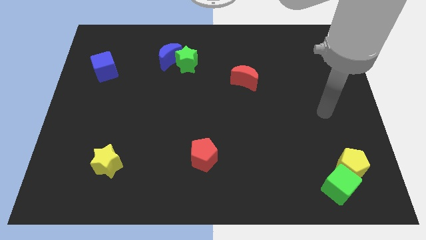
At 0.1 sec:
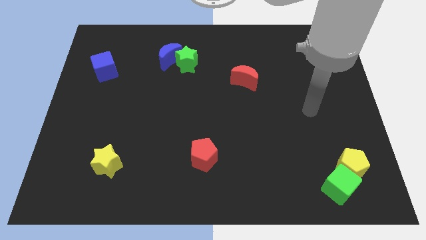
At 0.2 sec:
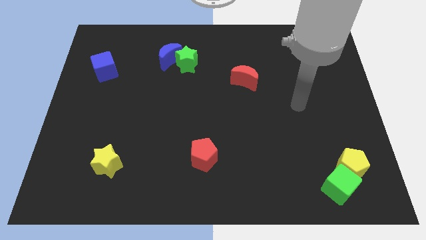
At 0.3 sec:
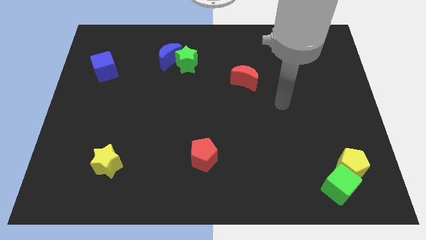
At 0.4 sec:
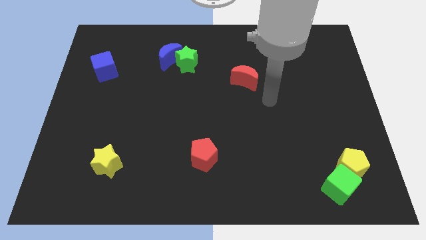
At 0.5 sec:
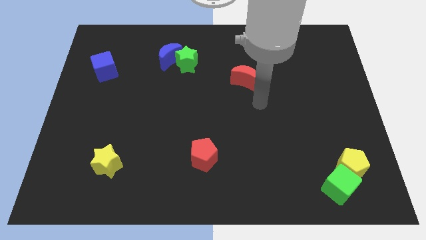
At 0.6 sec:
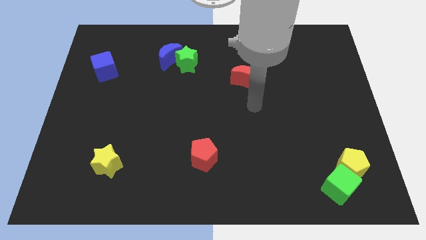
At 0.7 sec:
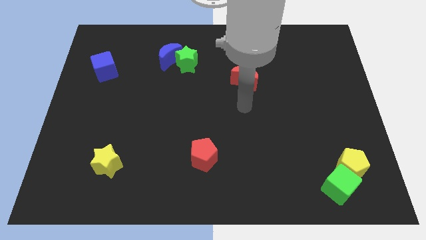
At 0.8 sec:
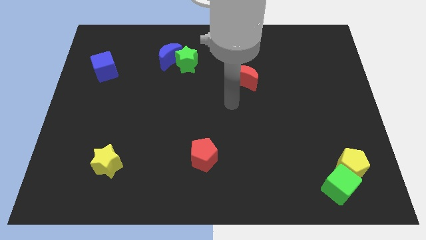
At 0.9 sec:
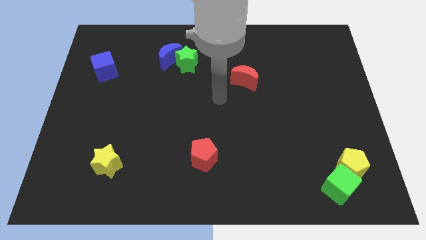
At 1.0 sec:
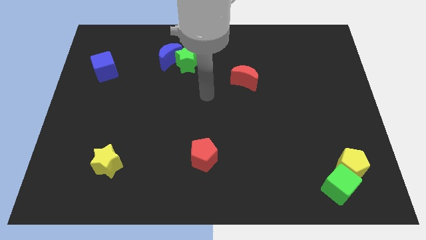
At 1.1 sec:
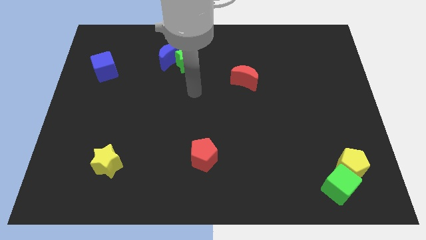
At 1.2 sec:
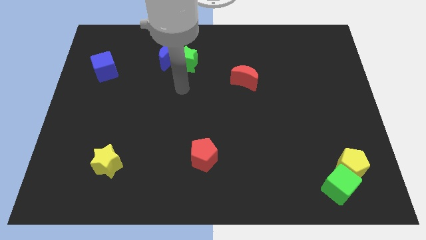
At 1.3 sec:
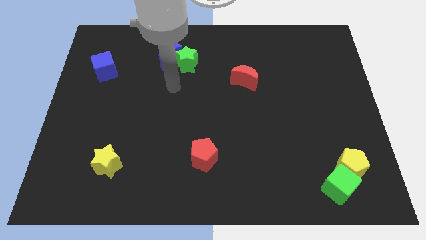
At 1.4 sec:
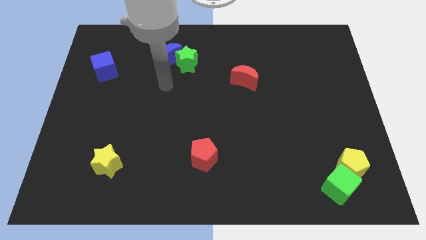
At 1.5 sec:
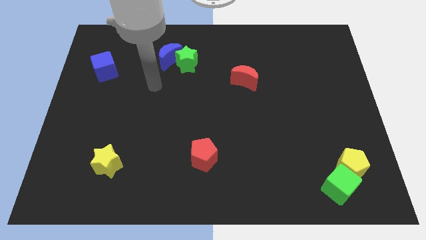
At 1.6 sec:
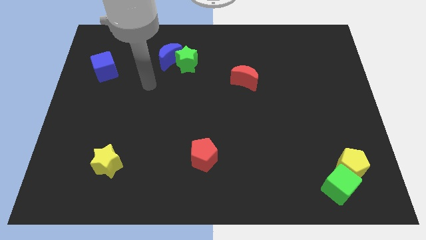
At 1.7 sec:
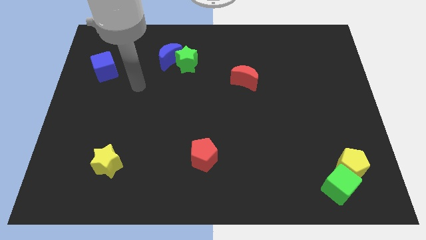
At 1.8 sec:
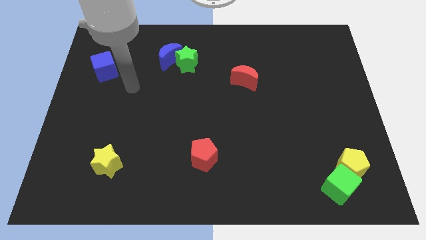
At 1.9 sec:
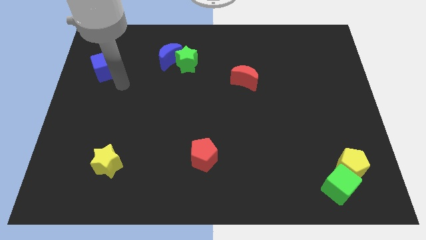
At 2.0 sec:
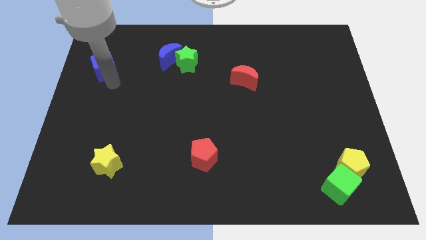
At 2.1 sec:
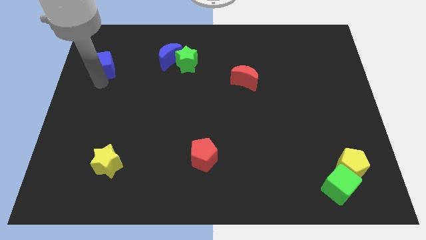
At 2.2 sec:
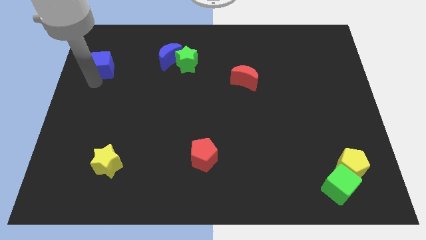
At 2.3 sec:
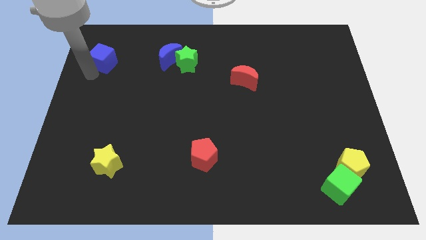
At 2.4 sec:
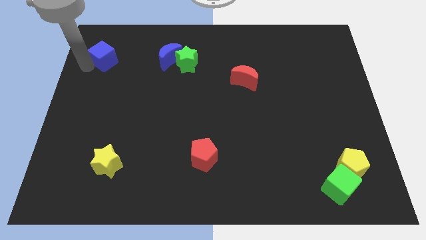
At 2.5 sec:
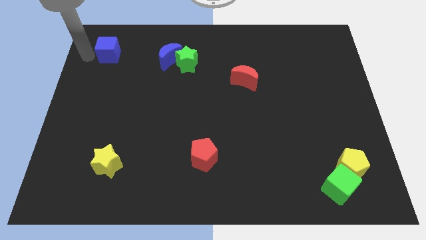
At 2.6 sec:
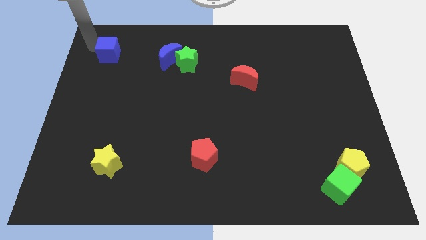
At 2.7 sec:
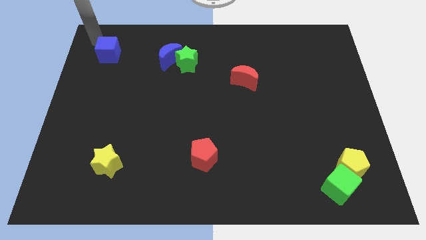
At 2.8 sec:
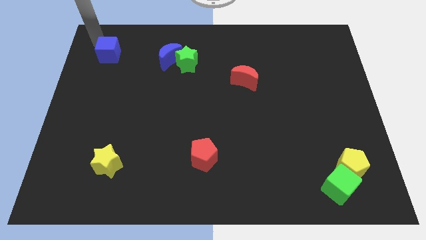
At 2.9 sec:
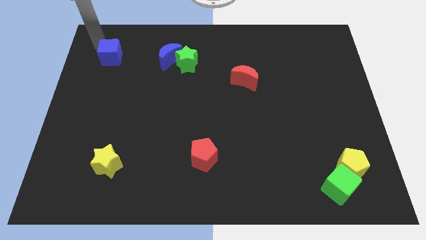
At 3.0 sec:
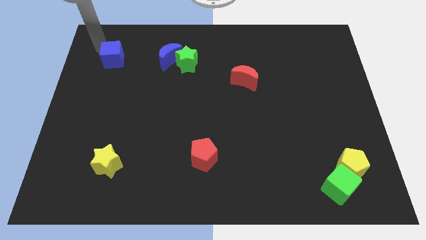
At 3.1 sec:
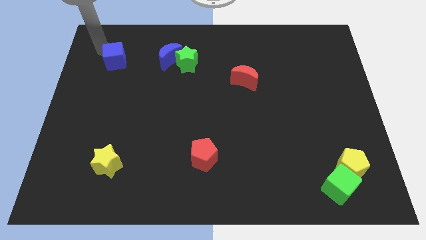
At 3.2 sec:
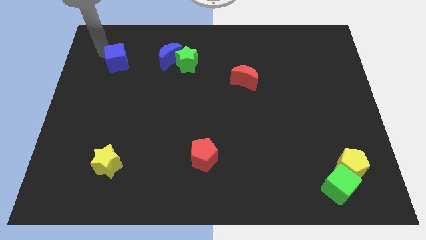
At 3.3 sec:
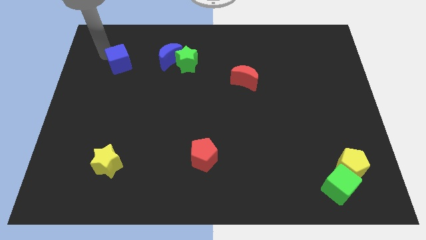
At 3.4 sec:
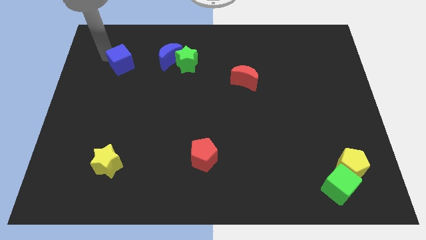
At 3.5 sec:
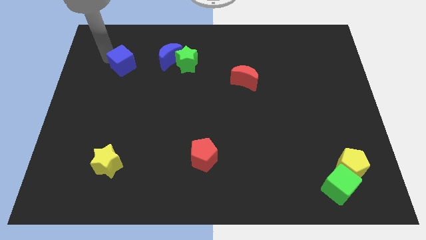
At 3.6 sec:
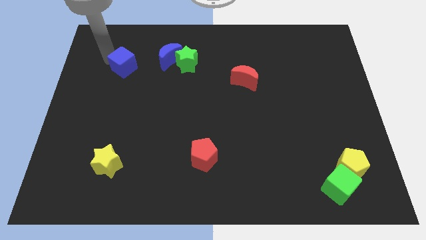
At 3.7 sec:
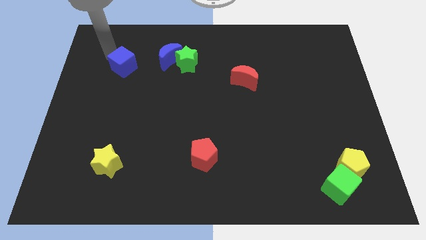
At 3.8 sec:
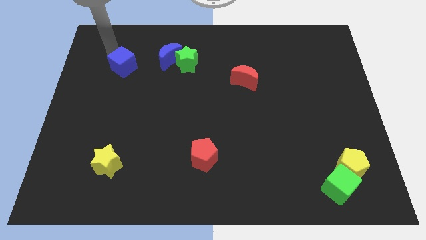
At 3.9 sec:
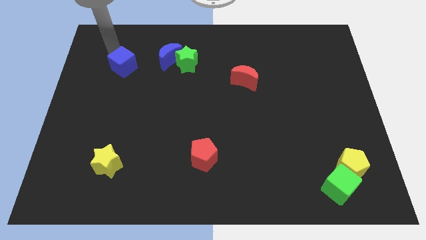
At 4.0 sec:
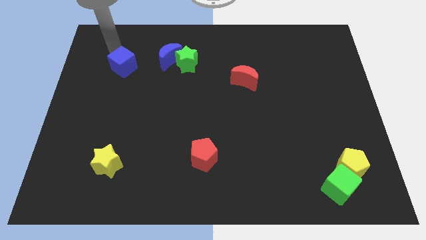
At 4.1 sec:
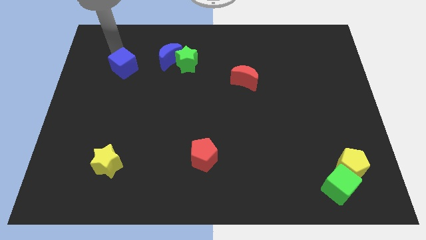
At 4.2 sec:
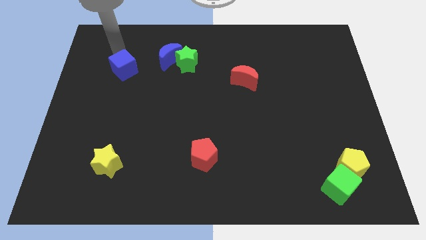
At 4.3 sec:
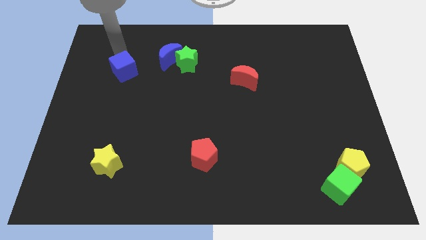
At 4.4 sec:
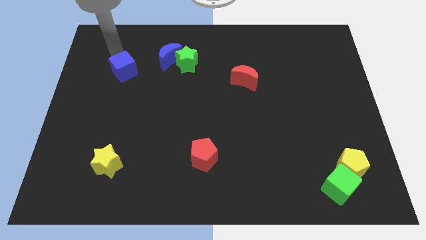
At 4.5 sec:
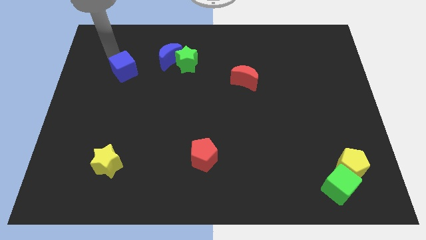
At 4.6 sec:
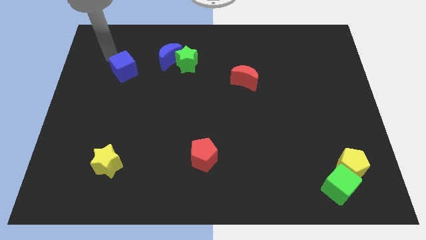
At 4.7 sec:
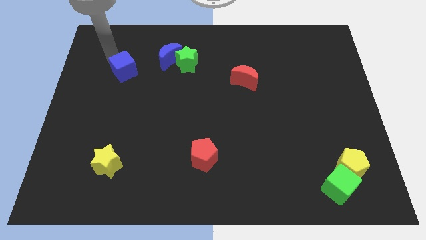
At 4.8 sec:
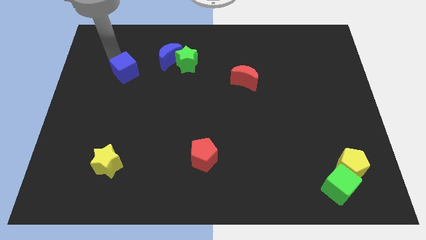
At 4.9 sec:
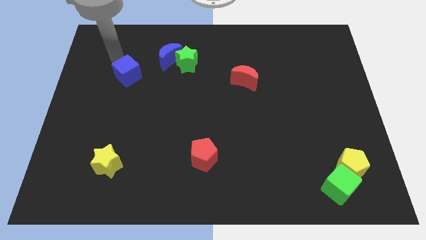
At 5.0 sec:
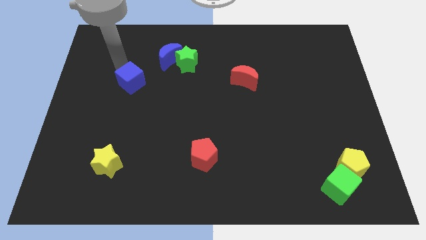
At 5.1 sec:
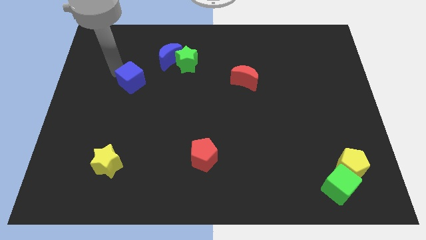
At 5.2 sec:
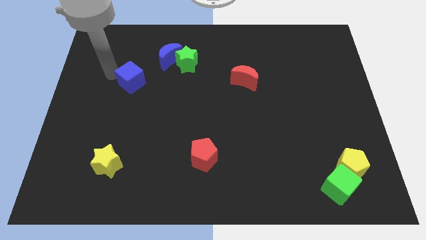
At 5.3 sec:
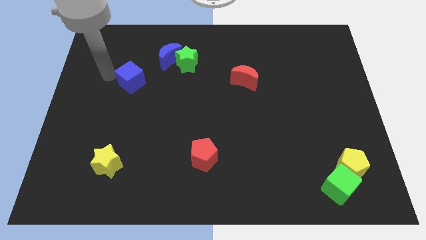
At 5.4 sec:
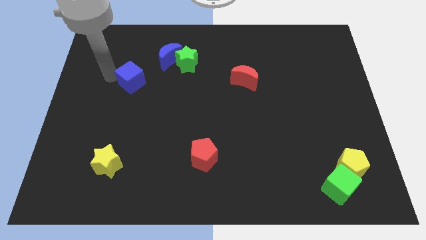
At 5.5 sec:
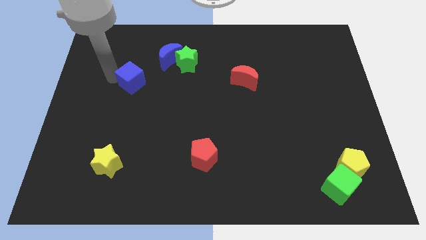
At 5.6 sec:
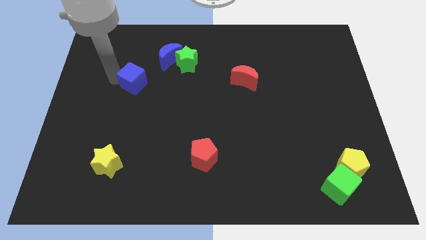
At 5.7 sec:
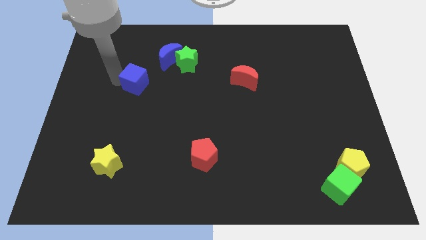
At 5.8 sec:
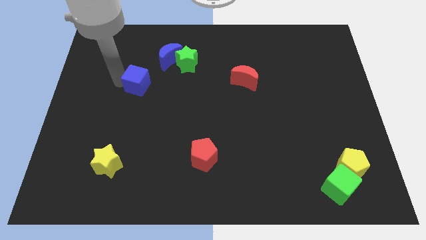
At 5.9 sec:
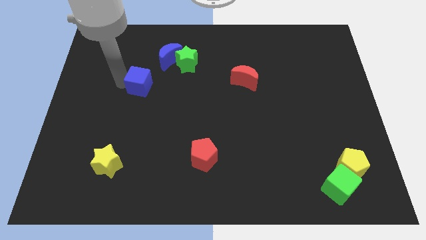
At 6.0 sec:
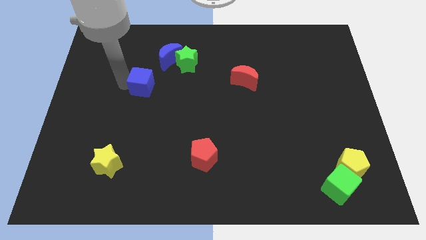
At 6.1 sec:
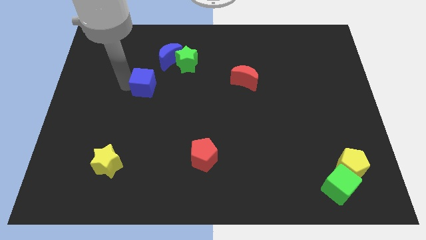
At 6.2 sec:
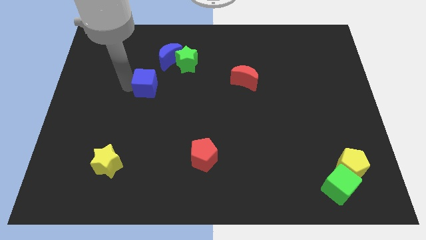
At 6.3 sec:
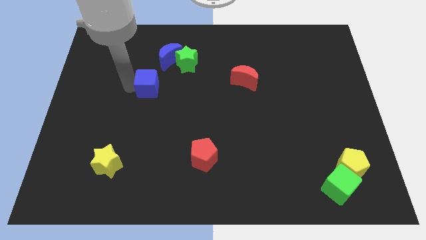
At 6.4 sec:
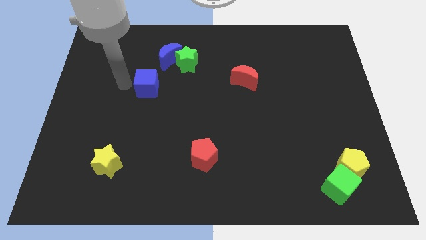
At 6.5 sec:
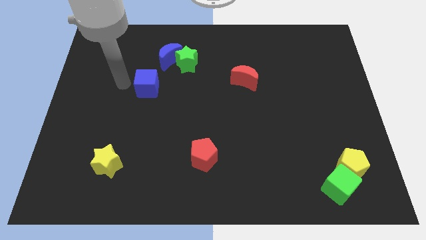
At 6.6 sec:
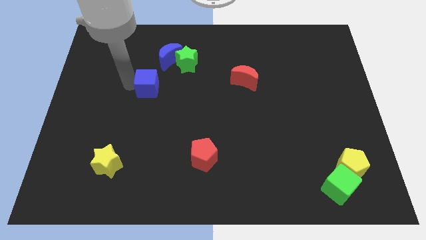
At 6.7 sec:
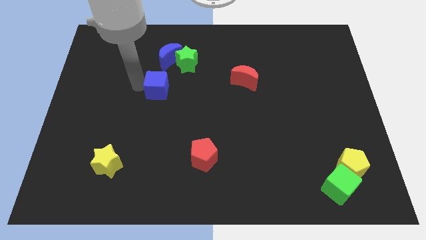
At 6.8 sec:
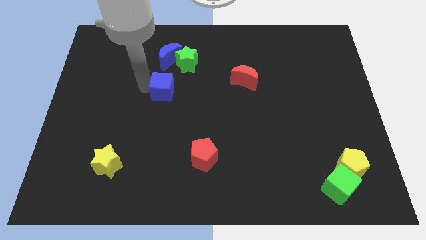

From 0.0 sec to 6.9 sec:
move the blue cube to the center of the board
